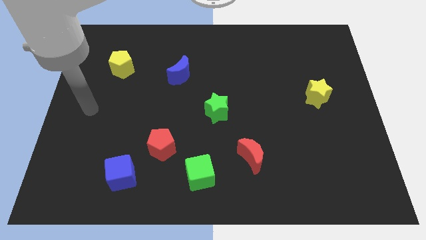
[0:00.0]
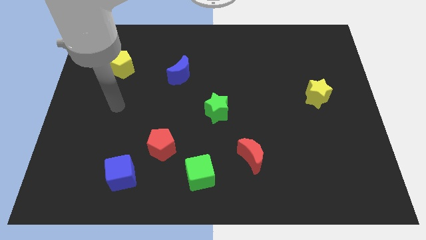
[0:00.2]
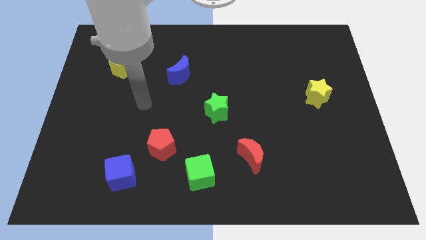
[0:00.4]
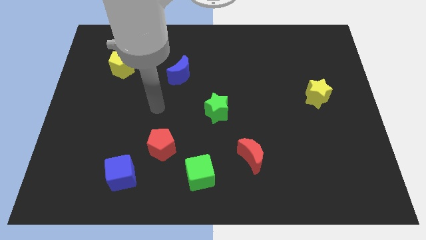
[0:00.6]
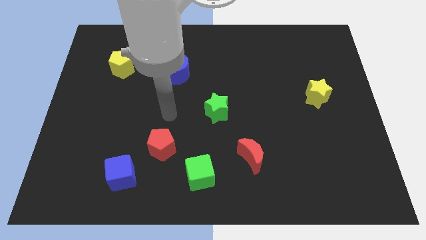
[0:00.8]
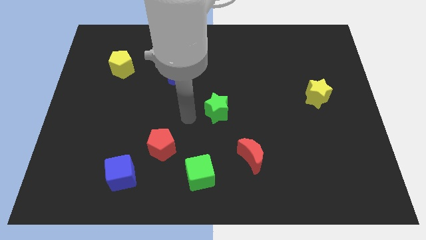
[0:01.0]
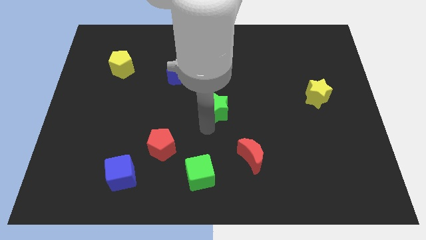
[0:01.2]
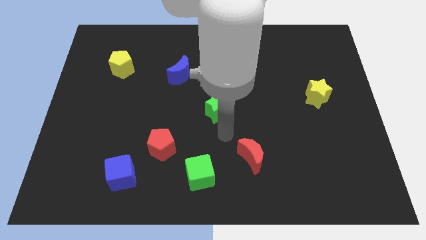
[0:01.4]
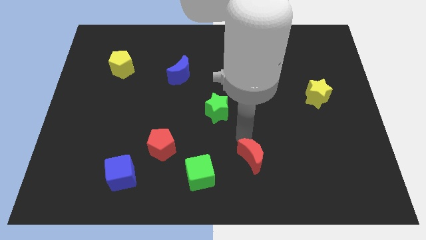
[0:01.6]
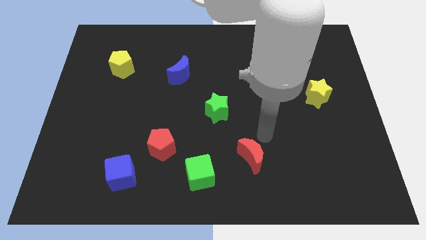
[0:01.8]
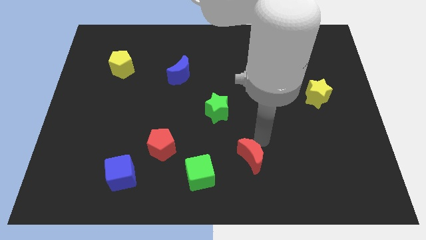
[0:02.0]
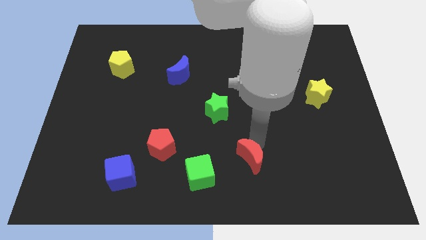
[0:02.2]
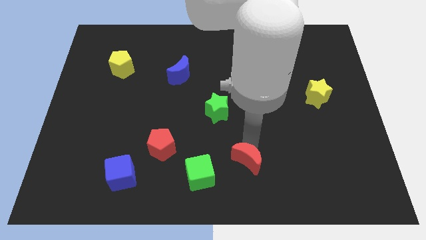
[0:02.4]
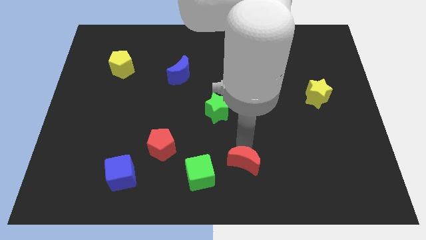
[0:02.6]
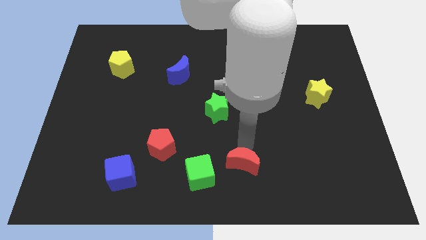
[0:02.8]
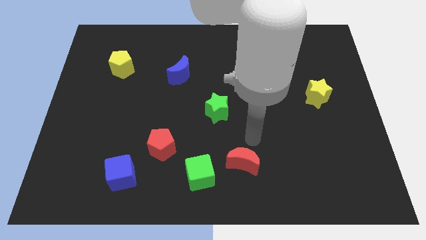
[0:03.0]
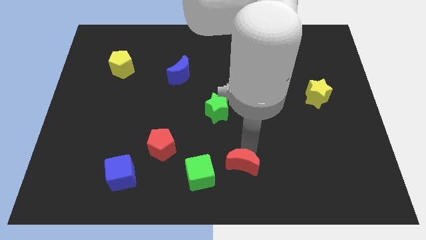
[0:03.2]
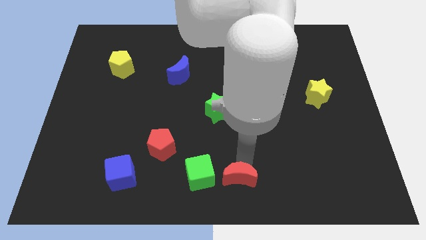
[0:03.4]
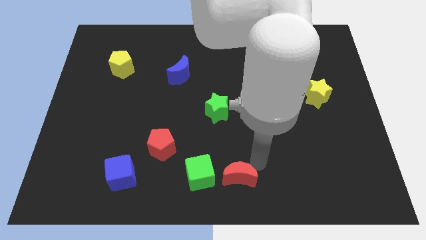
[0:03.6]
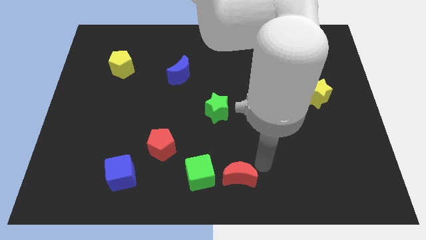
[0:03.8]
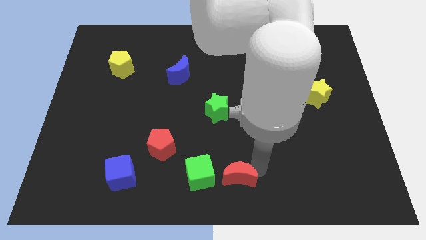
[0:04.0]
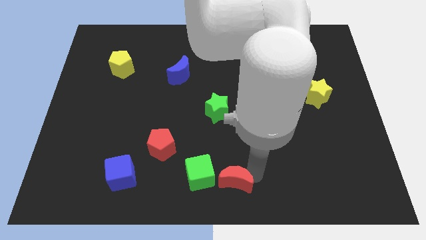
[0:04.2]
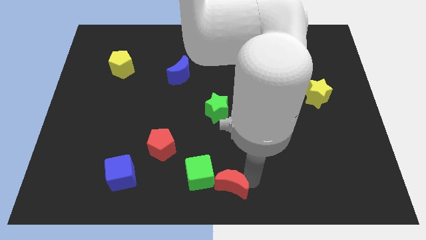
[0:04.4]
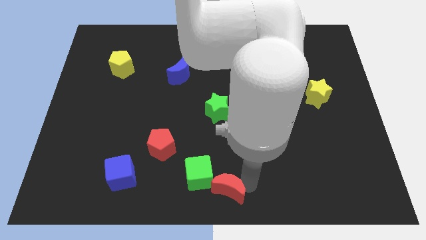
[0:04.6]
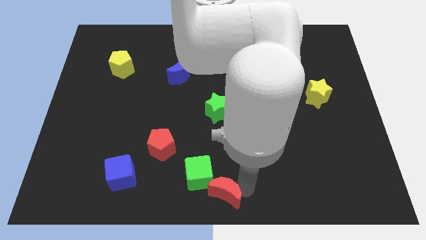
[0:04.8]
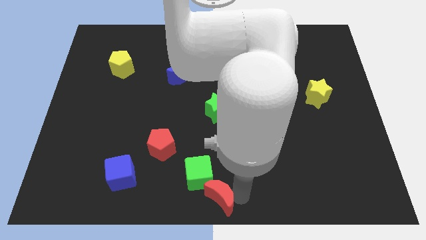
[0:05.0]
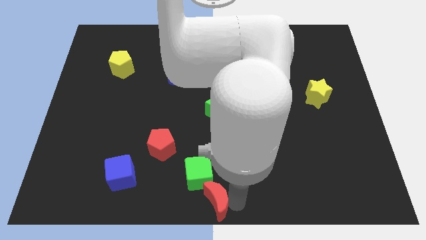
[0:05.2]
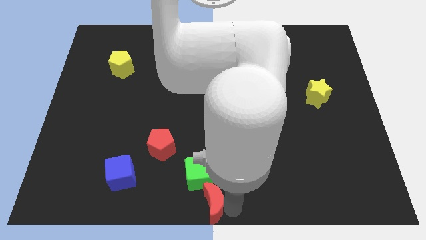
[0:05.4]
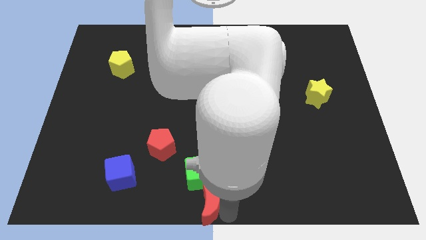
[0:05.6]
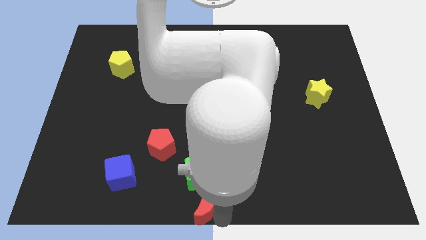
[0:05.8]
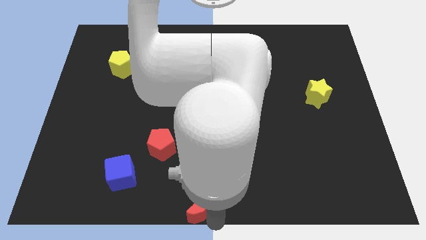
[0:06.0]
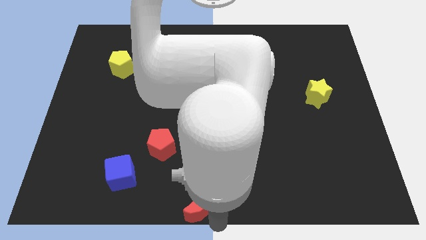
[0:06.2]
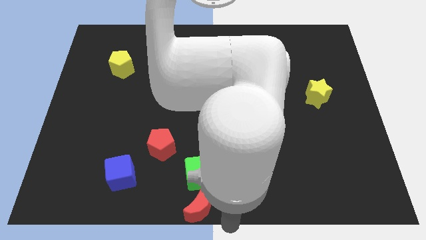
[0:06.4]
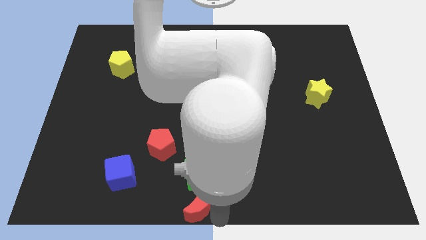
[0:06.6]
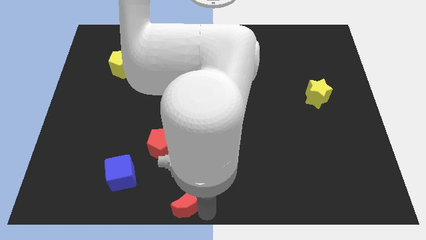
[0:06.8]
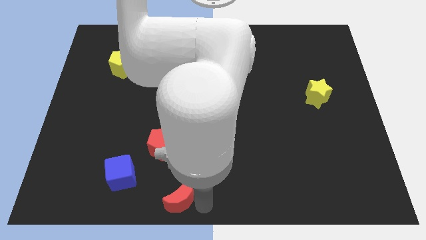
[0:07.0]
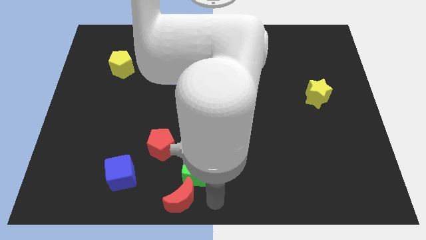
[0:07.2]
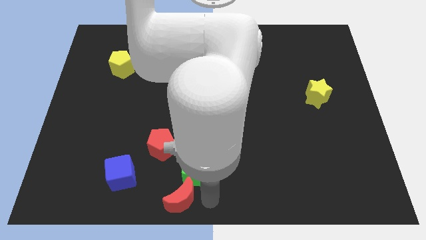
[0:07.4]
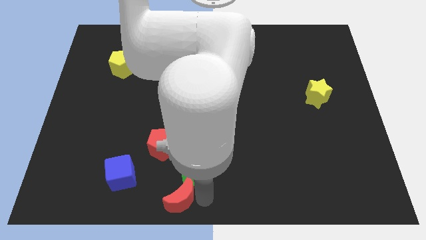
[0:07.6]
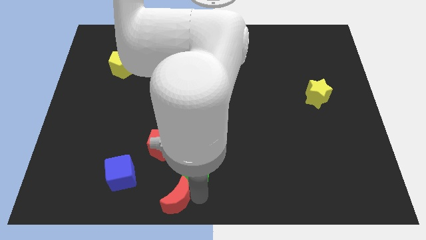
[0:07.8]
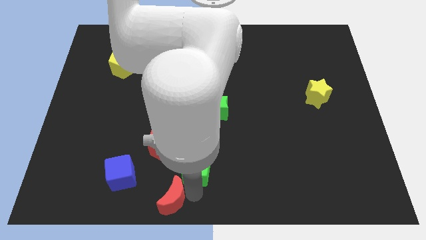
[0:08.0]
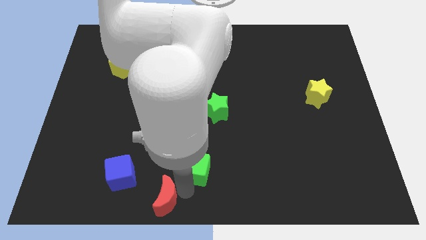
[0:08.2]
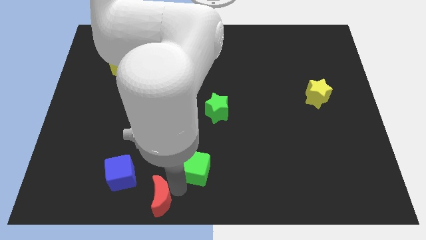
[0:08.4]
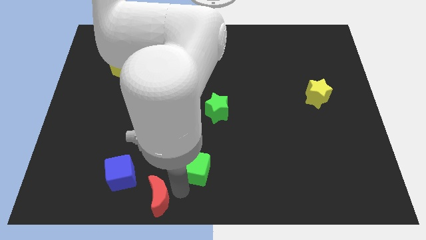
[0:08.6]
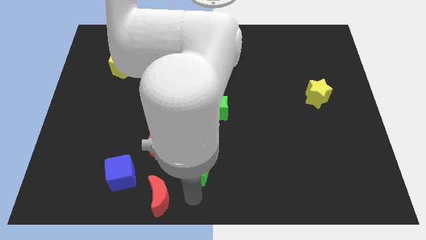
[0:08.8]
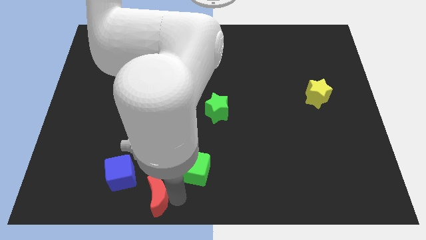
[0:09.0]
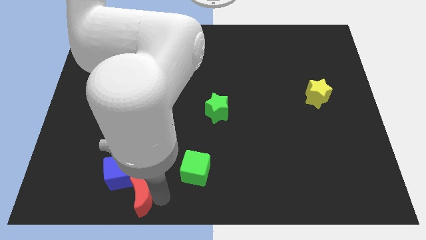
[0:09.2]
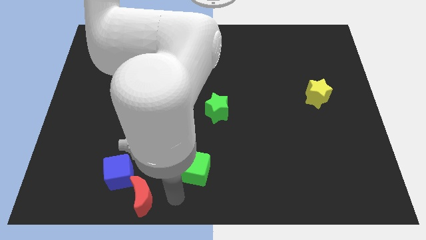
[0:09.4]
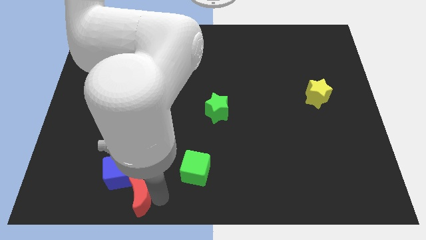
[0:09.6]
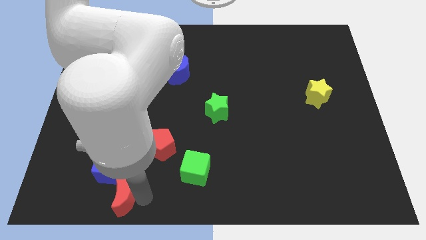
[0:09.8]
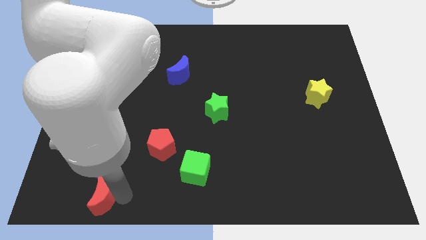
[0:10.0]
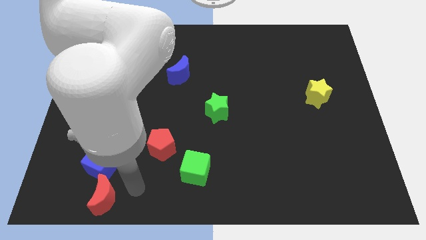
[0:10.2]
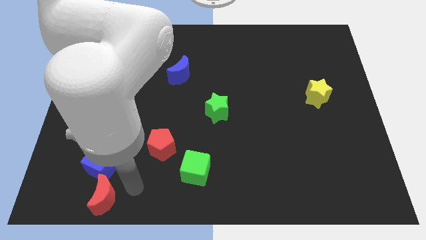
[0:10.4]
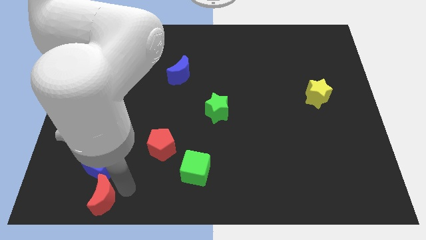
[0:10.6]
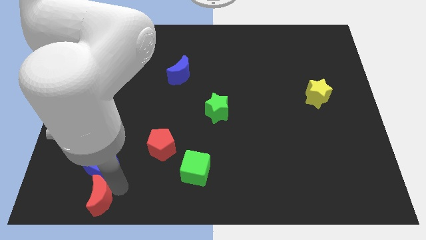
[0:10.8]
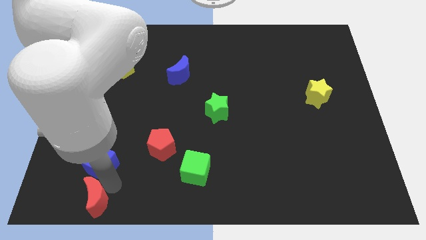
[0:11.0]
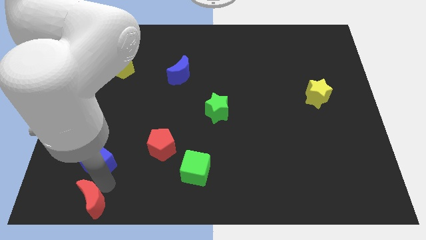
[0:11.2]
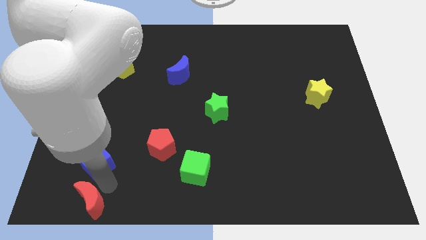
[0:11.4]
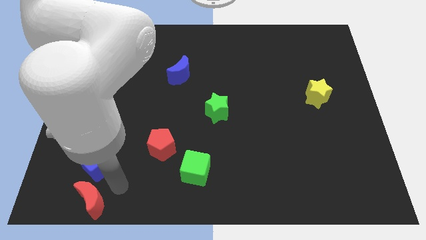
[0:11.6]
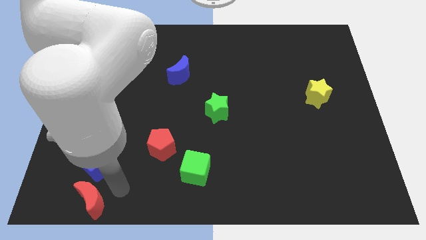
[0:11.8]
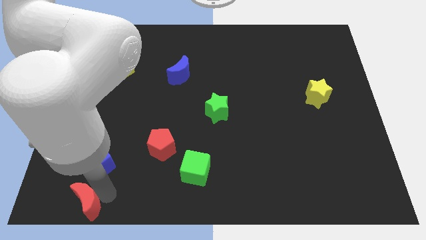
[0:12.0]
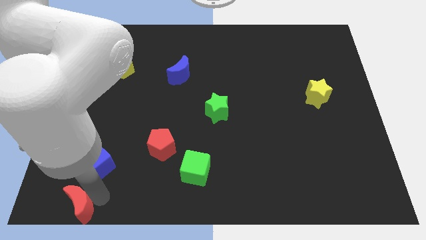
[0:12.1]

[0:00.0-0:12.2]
move the red moon to the bottom left of the board

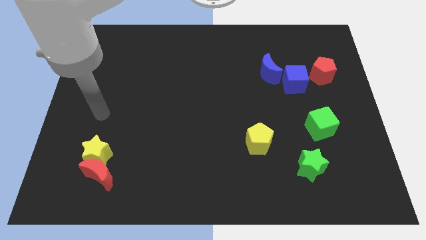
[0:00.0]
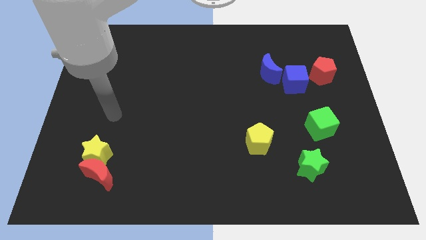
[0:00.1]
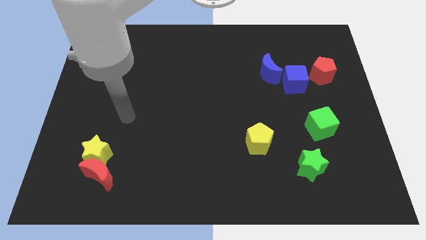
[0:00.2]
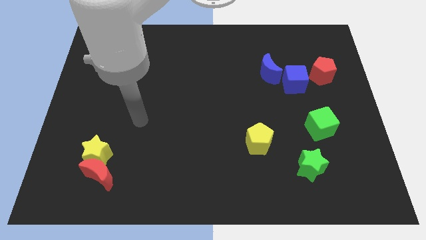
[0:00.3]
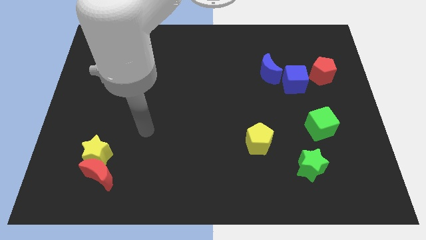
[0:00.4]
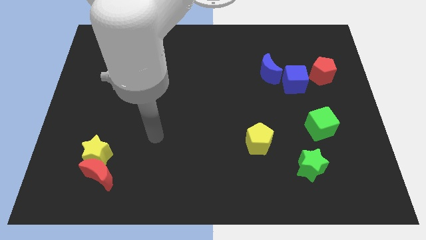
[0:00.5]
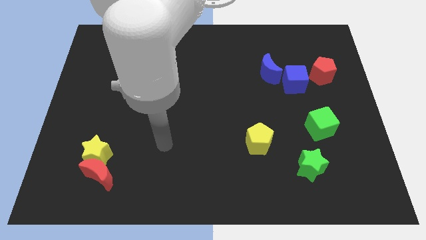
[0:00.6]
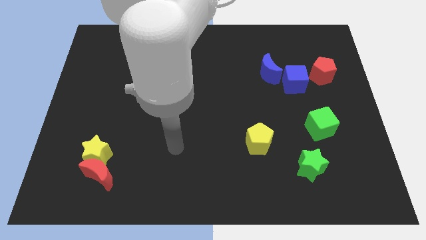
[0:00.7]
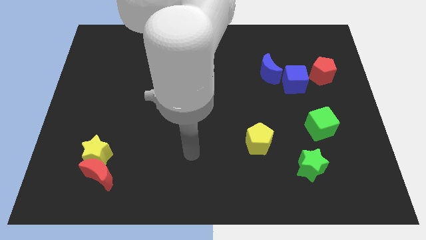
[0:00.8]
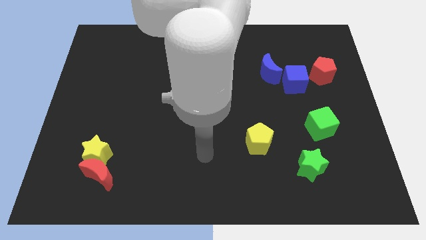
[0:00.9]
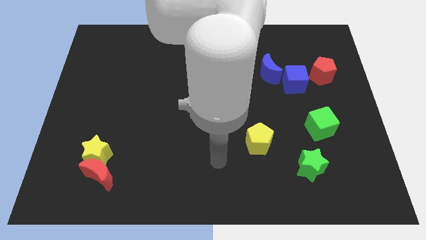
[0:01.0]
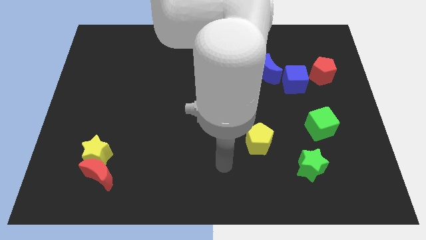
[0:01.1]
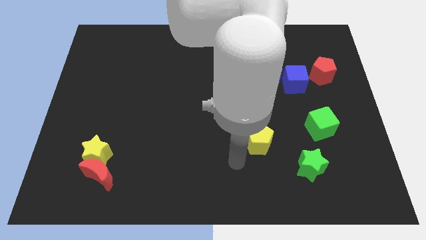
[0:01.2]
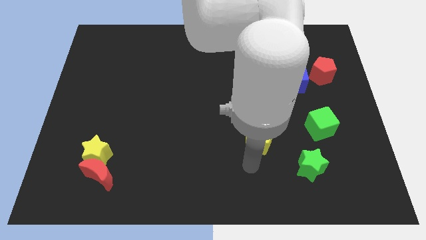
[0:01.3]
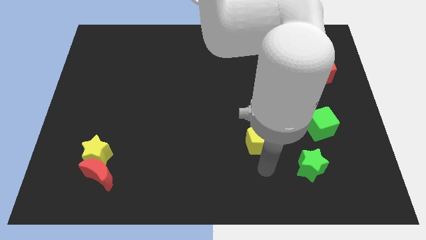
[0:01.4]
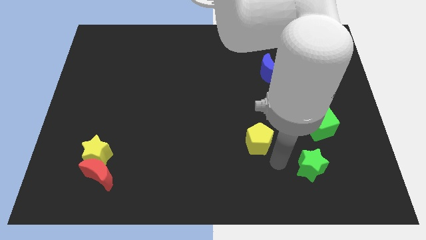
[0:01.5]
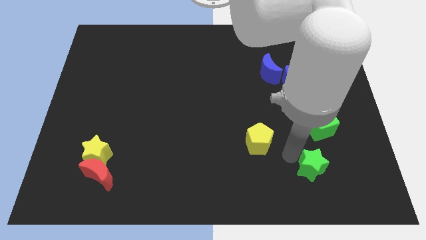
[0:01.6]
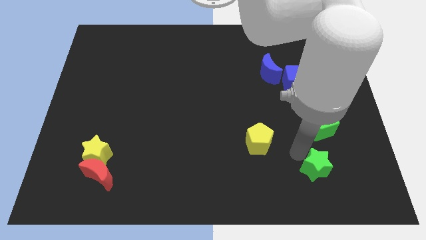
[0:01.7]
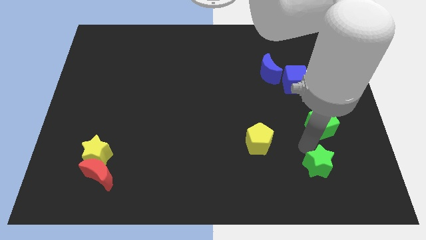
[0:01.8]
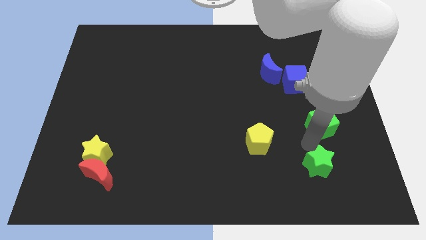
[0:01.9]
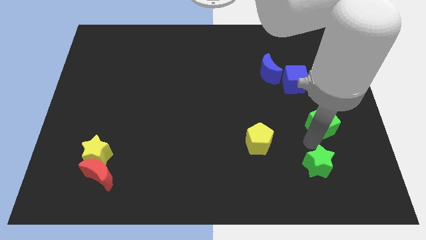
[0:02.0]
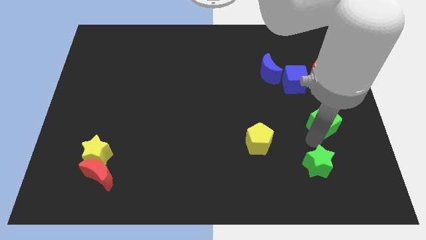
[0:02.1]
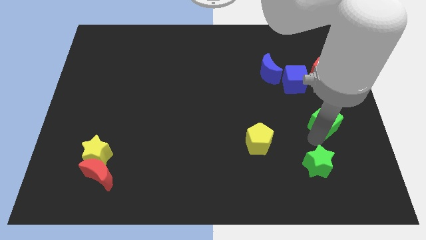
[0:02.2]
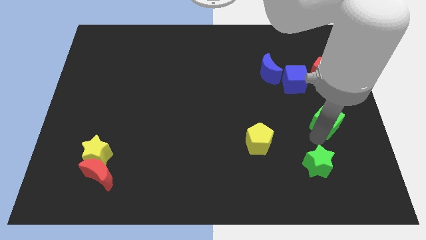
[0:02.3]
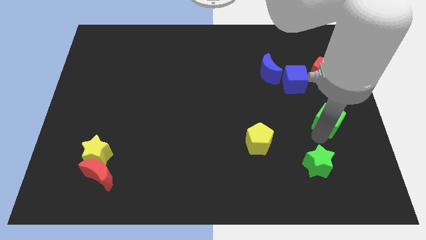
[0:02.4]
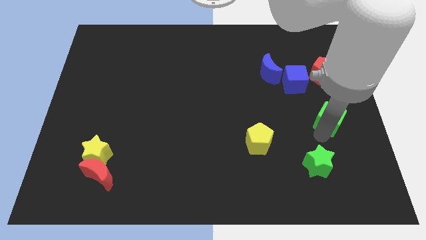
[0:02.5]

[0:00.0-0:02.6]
move the green cube to the center right
